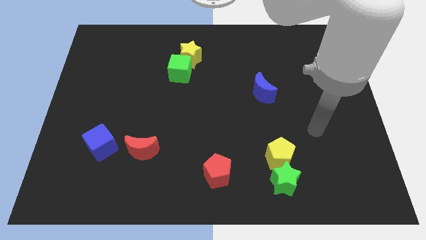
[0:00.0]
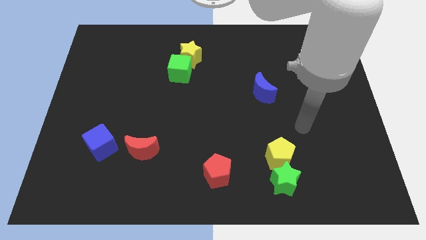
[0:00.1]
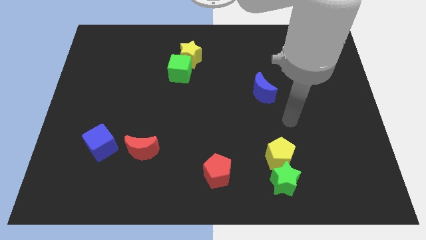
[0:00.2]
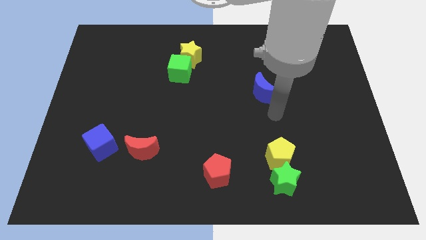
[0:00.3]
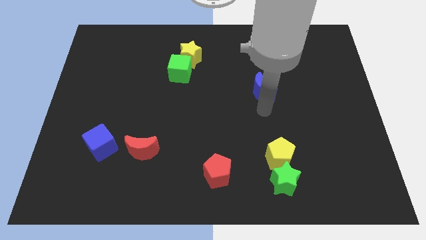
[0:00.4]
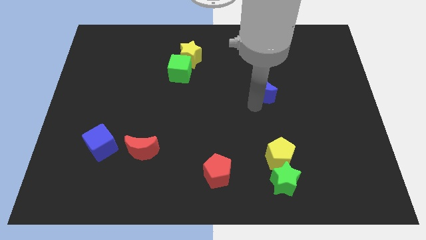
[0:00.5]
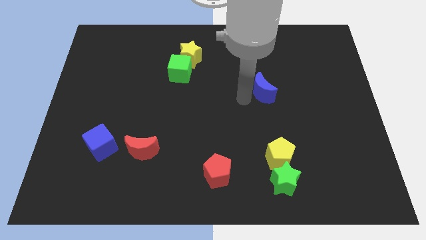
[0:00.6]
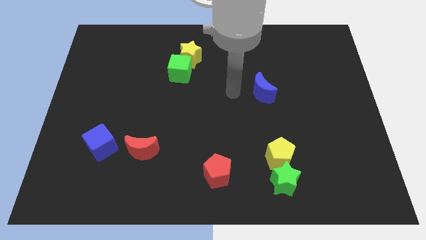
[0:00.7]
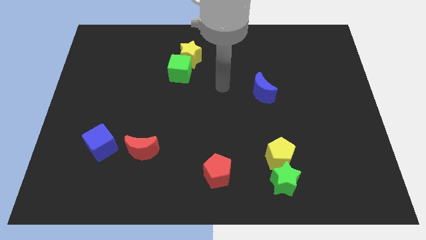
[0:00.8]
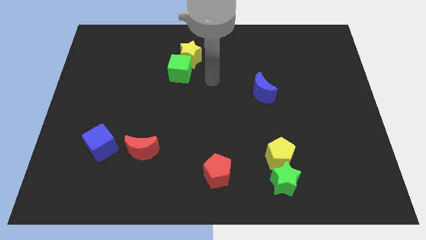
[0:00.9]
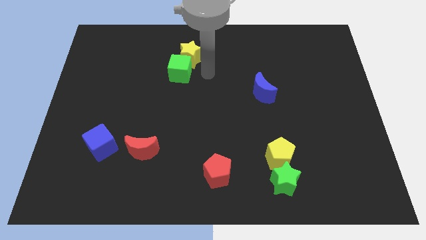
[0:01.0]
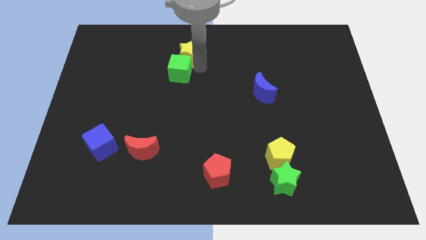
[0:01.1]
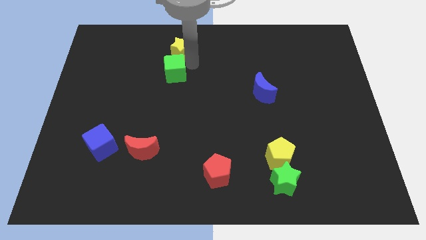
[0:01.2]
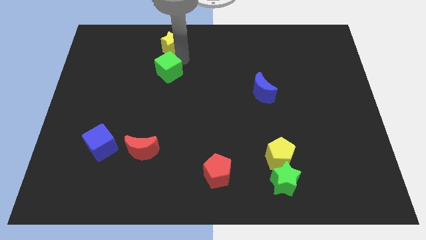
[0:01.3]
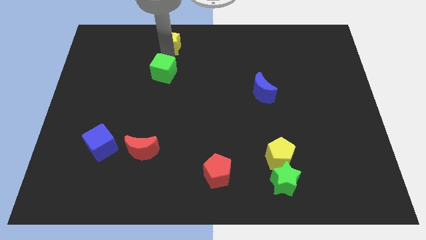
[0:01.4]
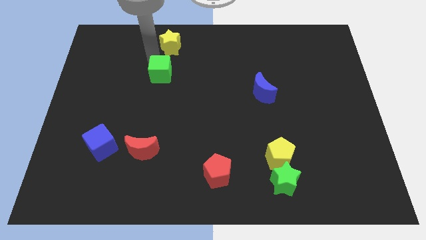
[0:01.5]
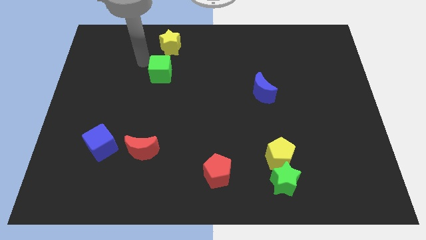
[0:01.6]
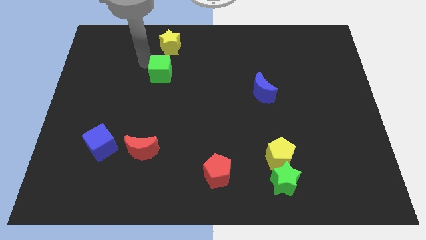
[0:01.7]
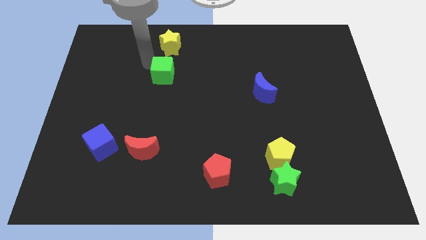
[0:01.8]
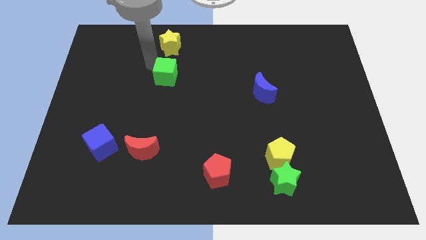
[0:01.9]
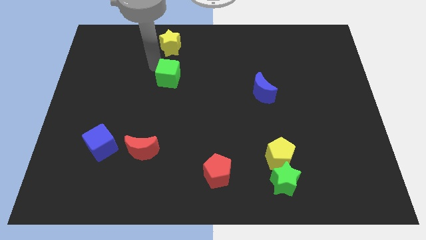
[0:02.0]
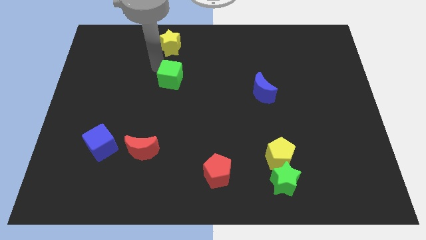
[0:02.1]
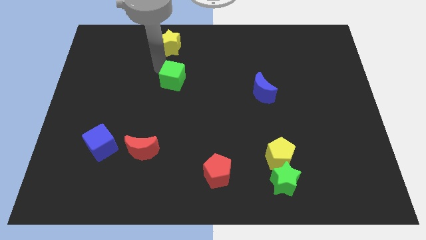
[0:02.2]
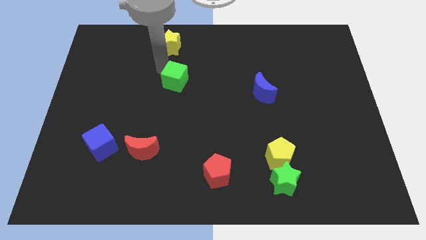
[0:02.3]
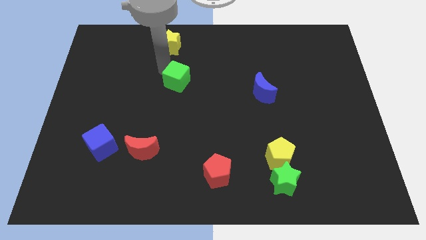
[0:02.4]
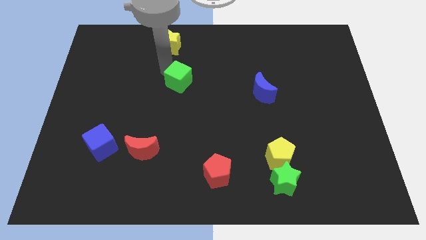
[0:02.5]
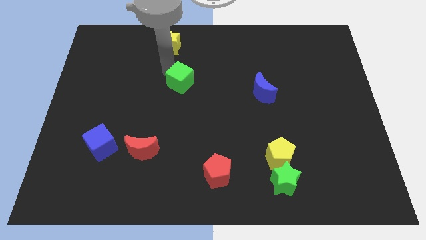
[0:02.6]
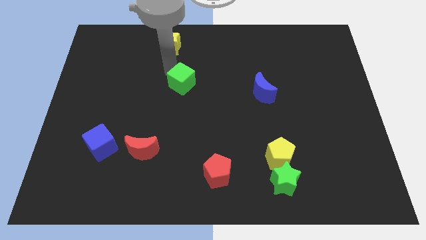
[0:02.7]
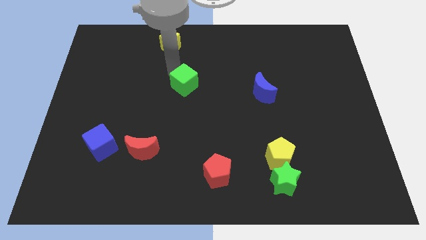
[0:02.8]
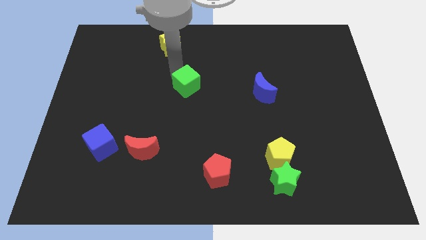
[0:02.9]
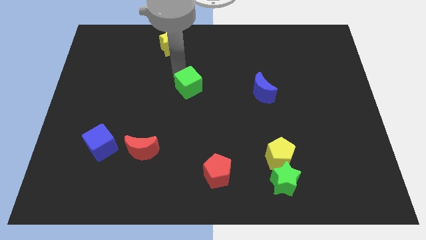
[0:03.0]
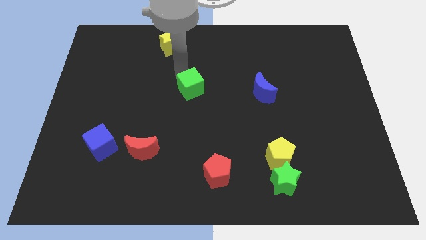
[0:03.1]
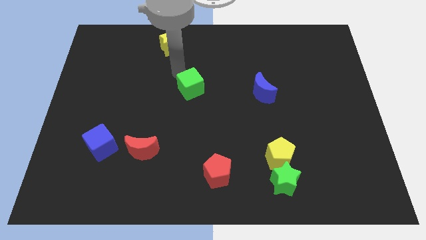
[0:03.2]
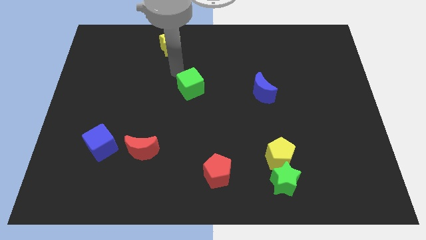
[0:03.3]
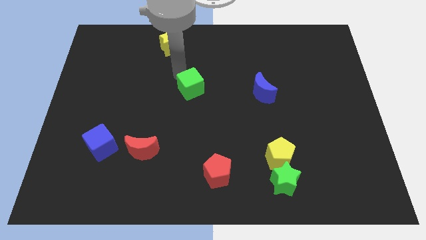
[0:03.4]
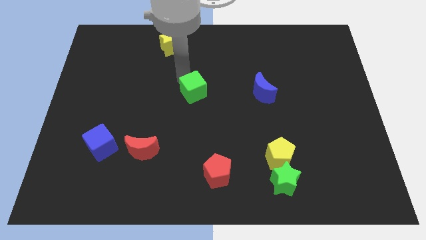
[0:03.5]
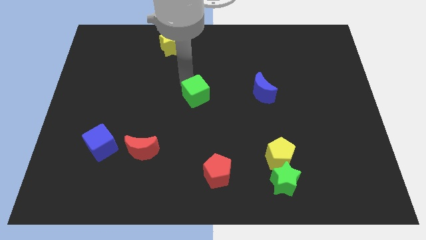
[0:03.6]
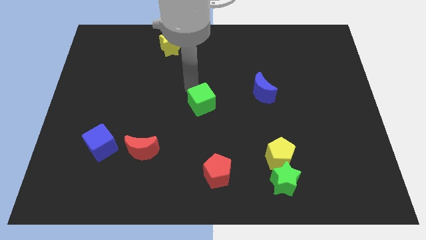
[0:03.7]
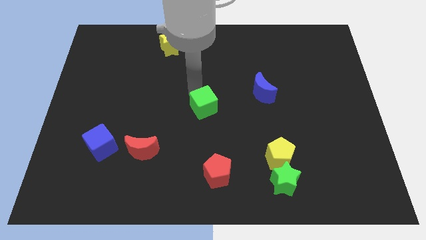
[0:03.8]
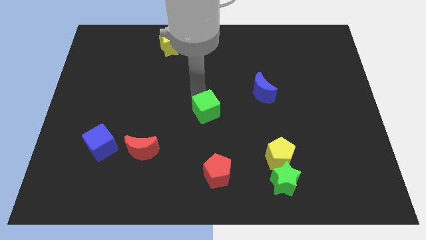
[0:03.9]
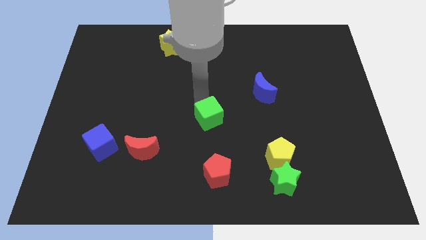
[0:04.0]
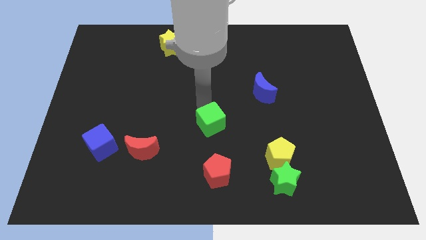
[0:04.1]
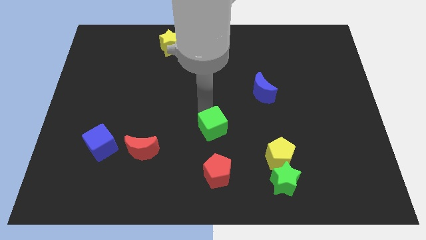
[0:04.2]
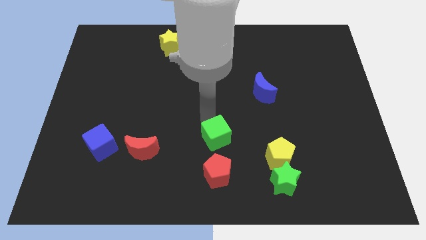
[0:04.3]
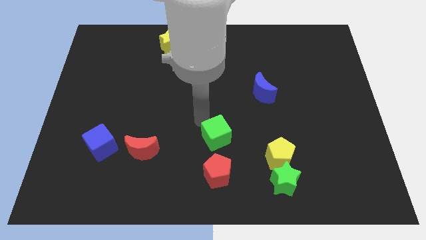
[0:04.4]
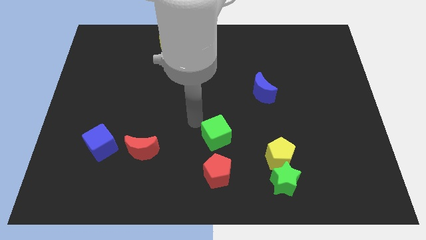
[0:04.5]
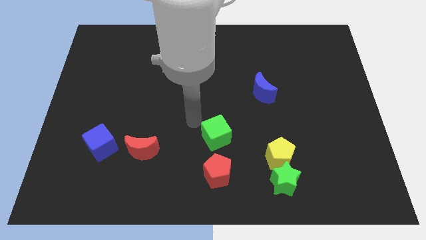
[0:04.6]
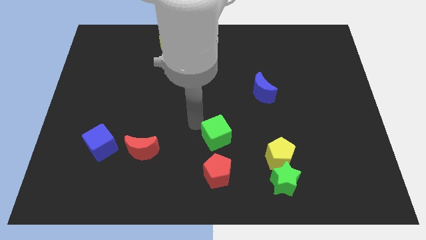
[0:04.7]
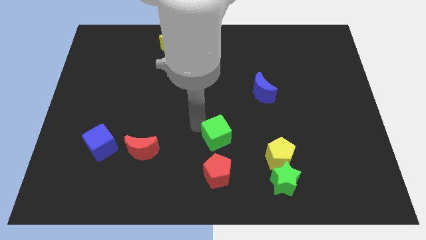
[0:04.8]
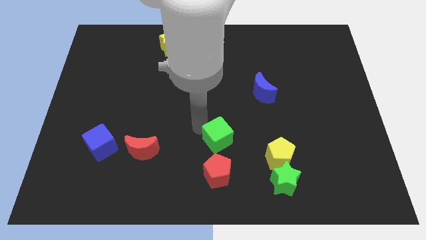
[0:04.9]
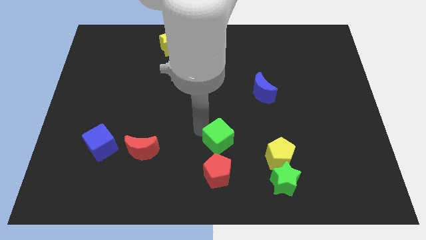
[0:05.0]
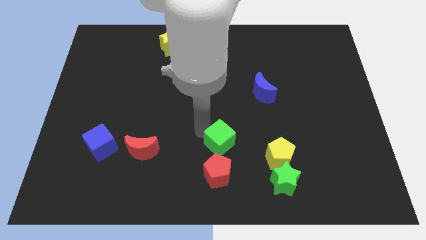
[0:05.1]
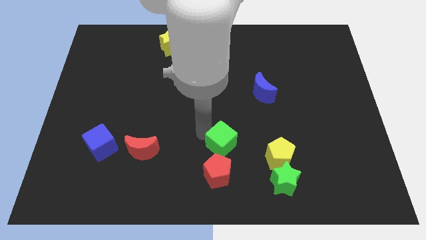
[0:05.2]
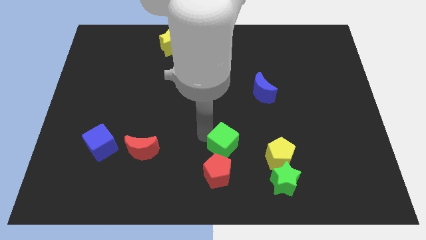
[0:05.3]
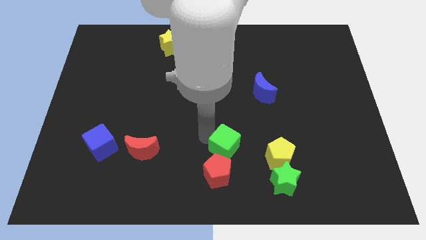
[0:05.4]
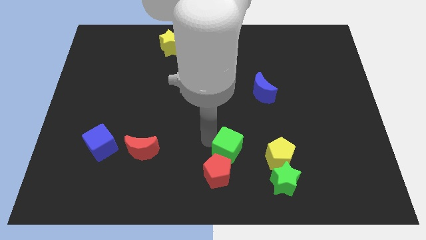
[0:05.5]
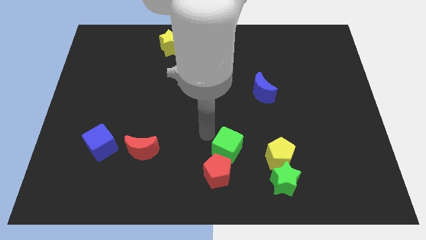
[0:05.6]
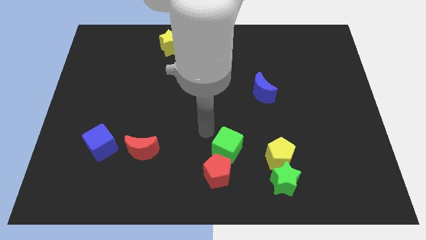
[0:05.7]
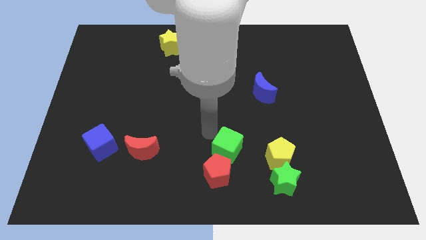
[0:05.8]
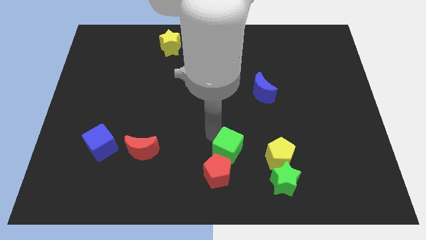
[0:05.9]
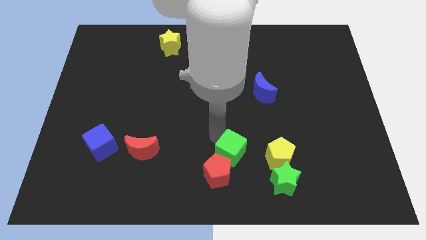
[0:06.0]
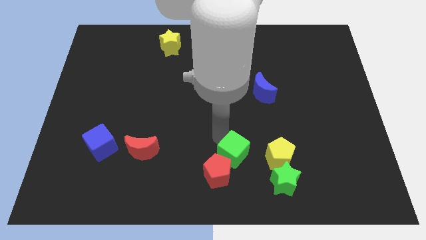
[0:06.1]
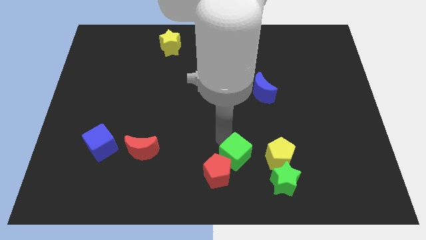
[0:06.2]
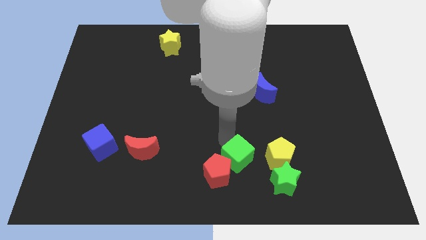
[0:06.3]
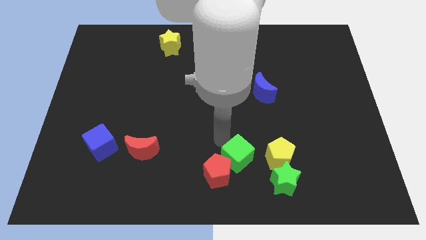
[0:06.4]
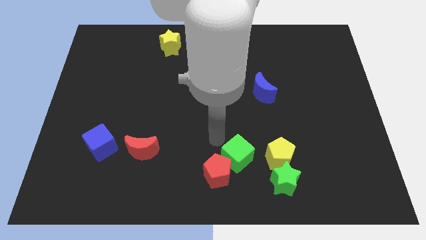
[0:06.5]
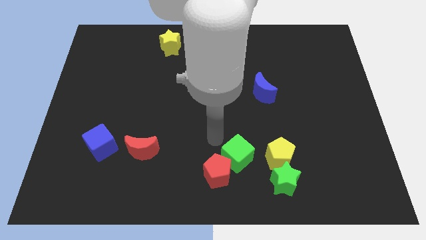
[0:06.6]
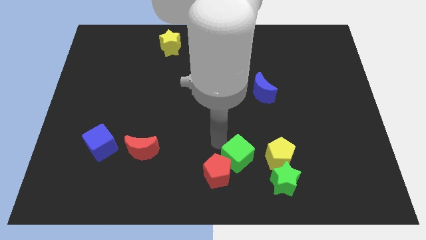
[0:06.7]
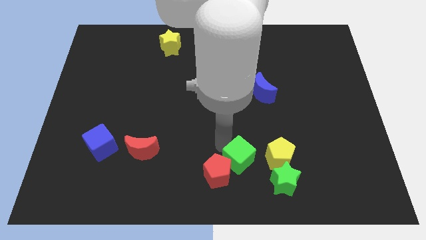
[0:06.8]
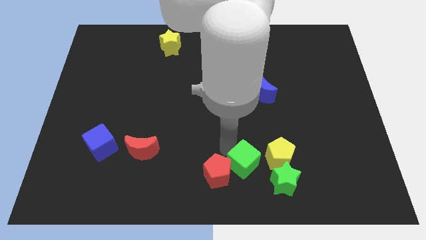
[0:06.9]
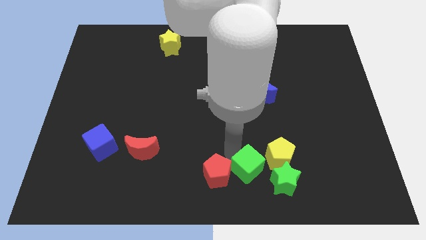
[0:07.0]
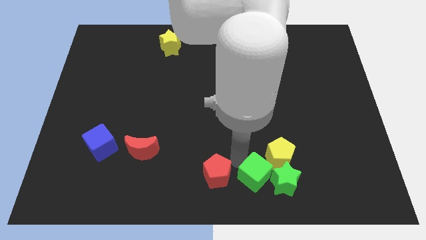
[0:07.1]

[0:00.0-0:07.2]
slide the green cube towards the green star
